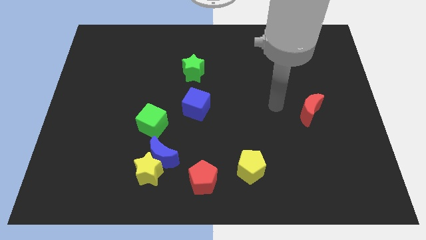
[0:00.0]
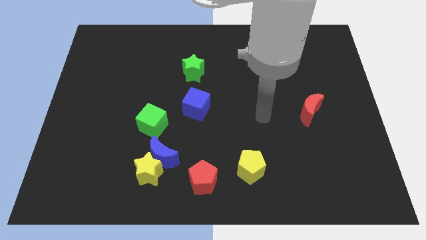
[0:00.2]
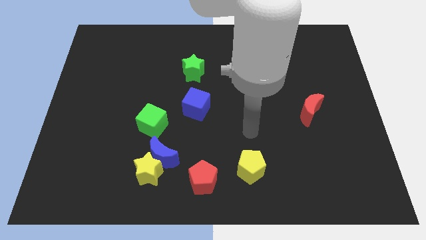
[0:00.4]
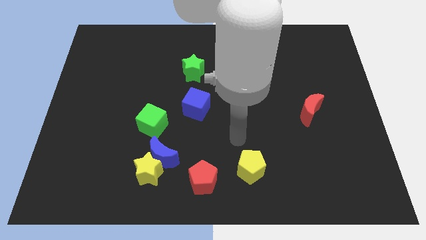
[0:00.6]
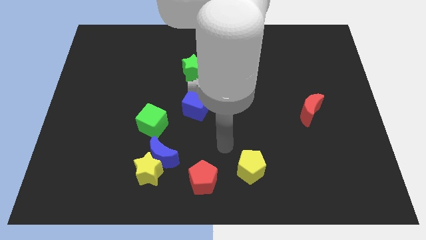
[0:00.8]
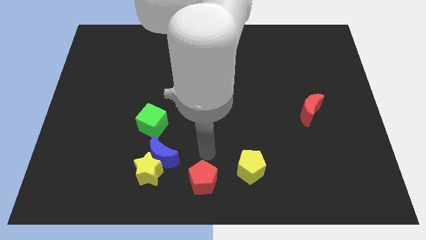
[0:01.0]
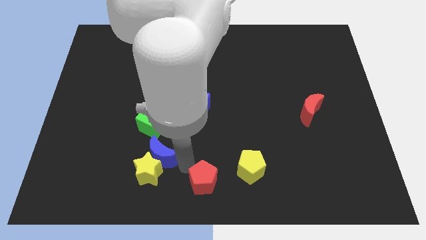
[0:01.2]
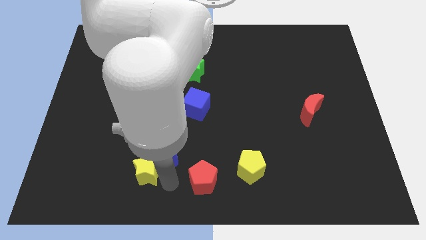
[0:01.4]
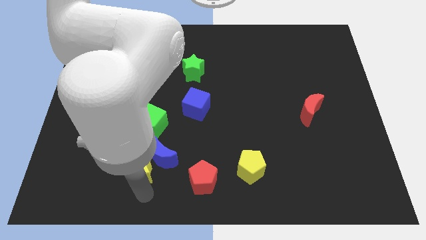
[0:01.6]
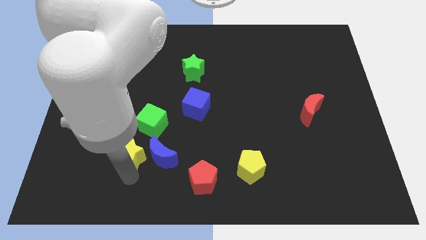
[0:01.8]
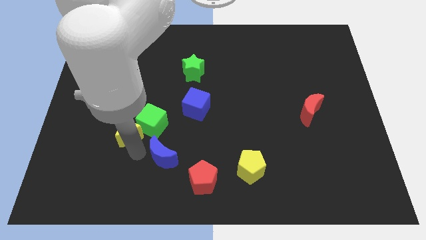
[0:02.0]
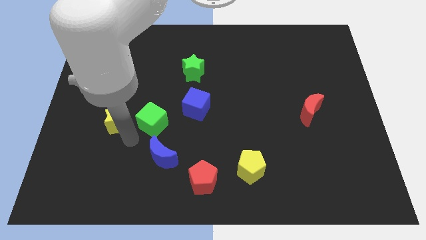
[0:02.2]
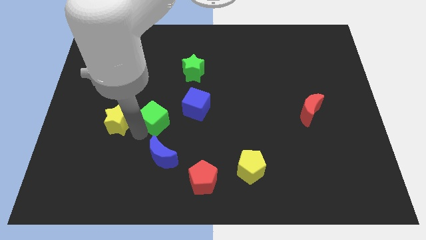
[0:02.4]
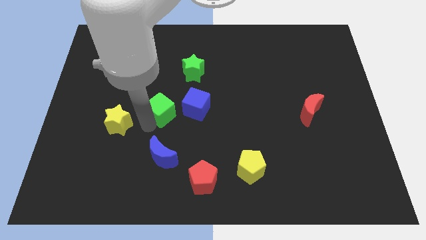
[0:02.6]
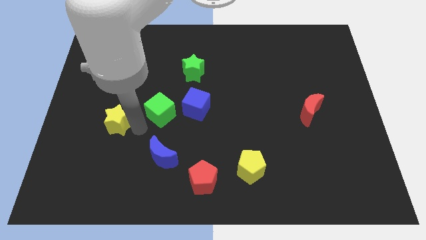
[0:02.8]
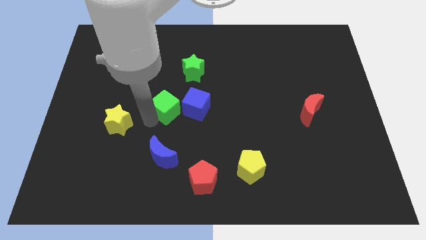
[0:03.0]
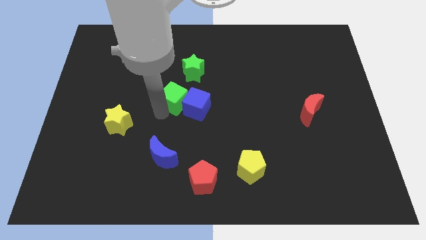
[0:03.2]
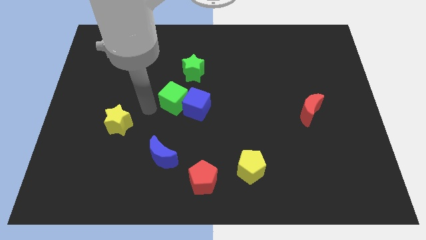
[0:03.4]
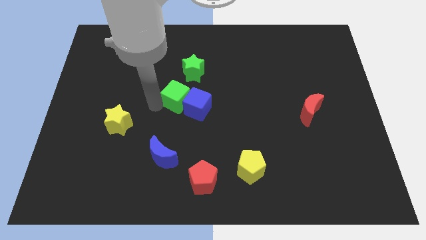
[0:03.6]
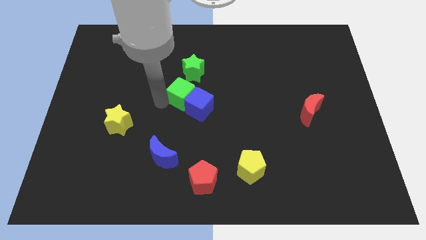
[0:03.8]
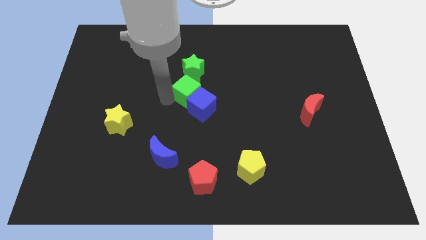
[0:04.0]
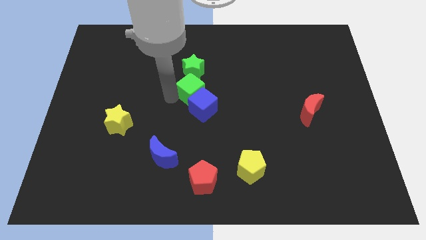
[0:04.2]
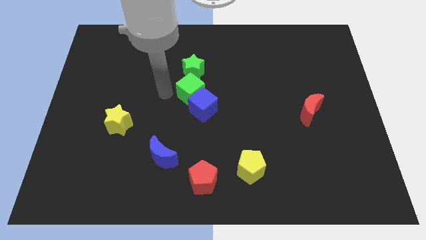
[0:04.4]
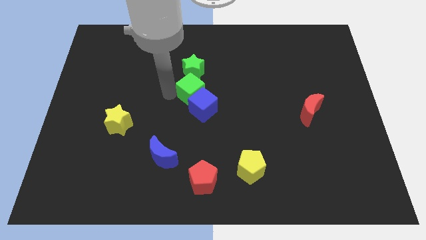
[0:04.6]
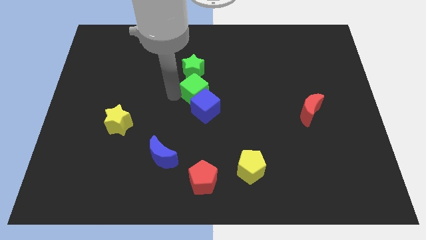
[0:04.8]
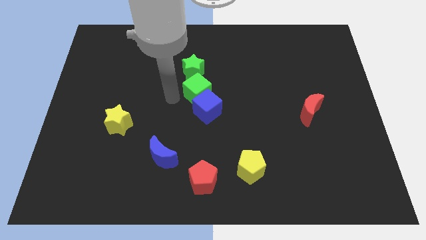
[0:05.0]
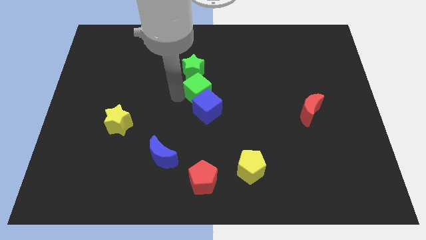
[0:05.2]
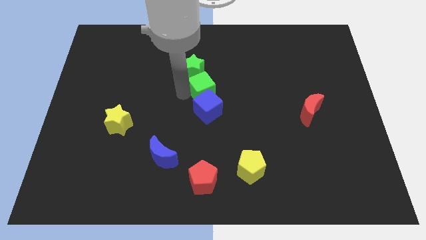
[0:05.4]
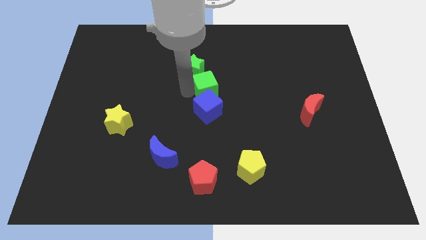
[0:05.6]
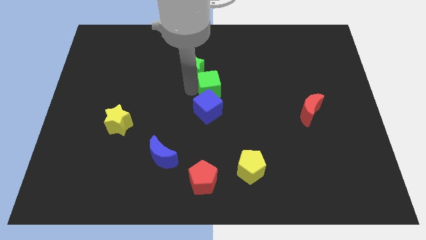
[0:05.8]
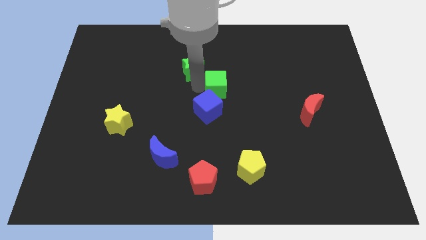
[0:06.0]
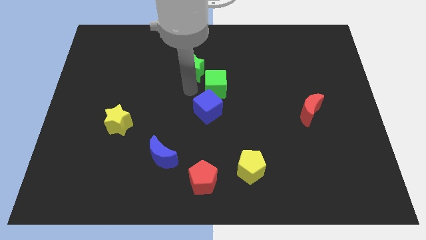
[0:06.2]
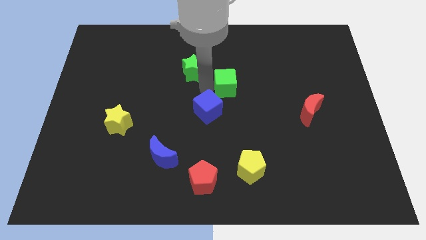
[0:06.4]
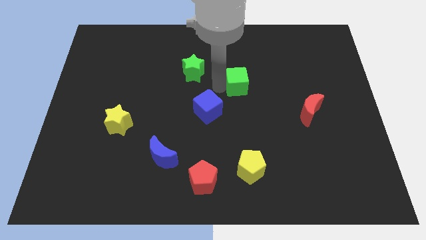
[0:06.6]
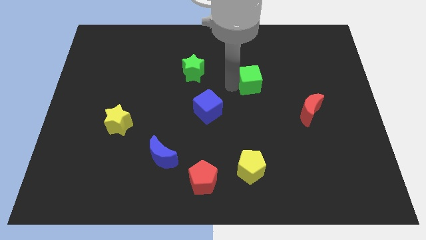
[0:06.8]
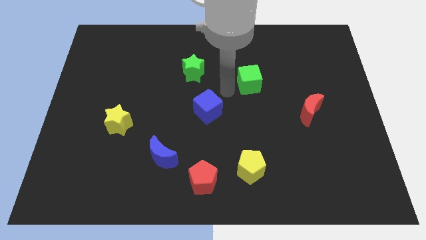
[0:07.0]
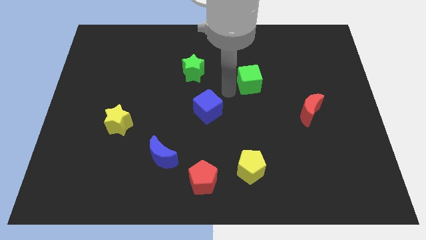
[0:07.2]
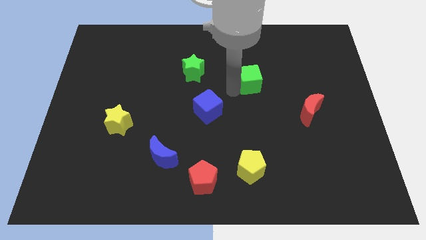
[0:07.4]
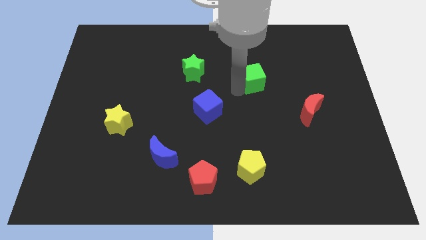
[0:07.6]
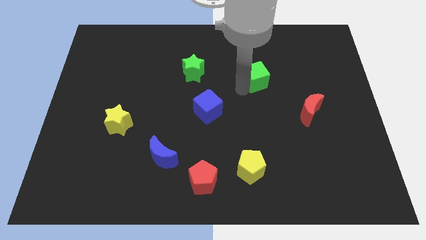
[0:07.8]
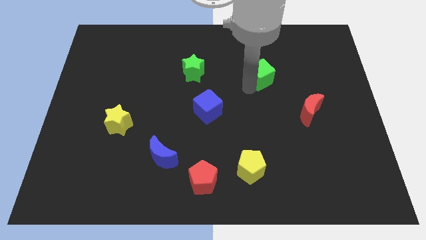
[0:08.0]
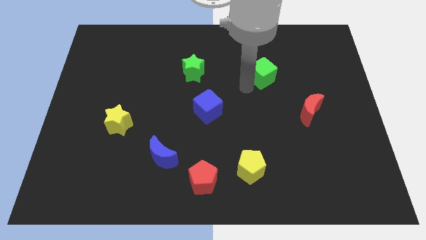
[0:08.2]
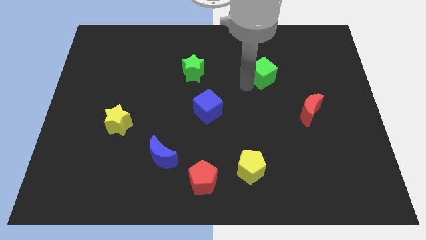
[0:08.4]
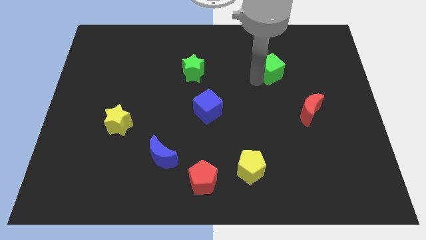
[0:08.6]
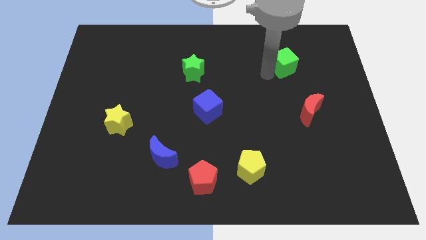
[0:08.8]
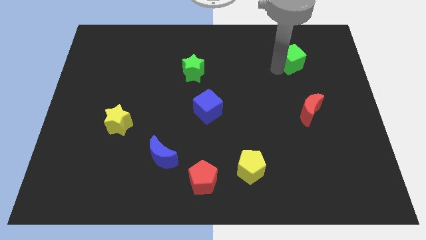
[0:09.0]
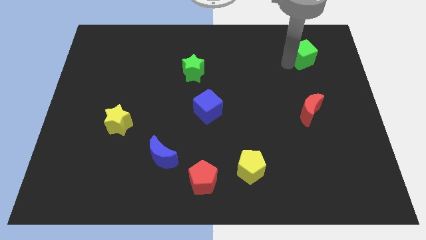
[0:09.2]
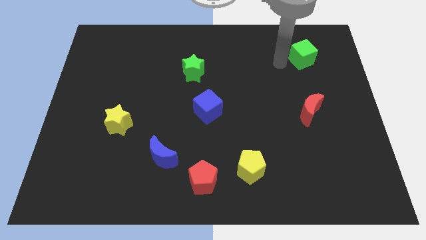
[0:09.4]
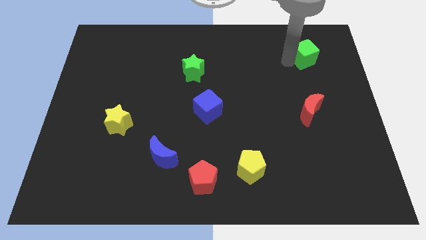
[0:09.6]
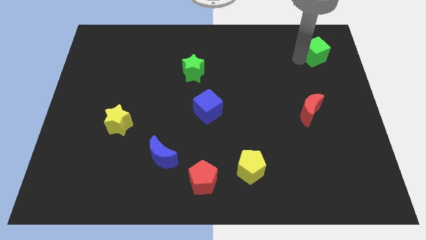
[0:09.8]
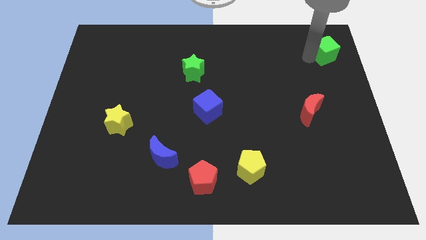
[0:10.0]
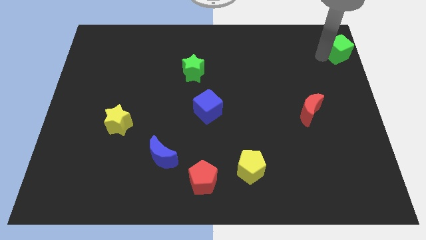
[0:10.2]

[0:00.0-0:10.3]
put the green cube to the top right corner

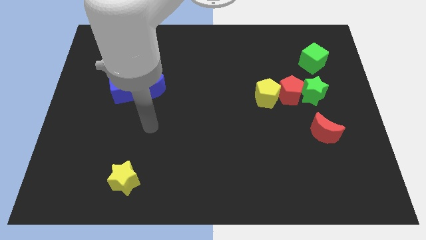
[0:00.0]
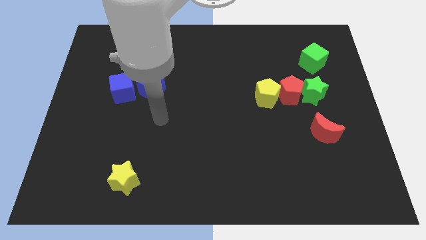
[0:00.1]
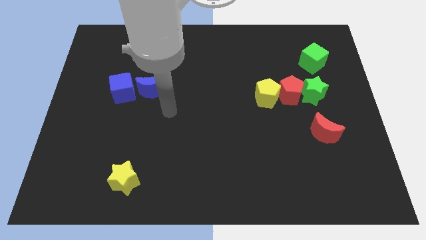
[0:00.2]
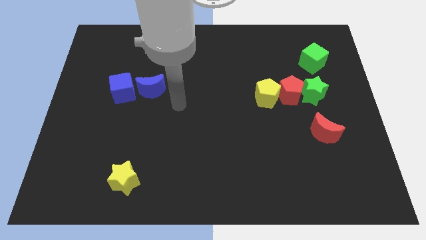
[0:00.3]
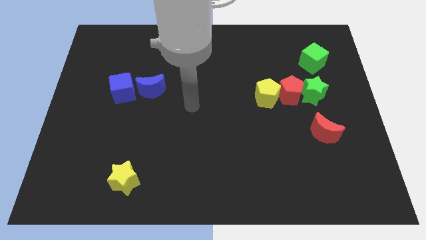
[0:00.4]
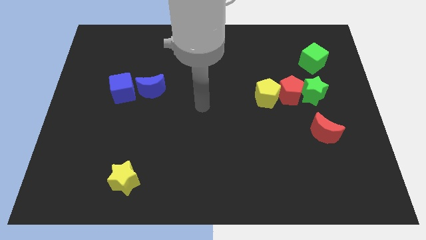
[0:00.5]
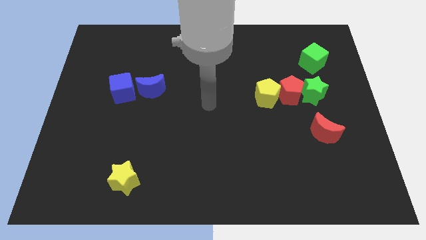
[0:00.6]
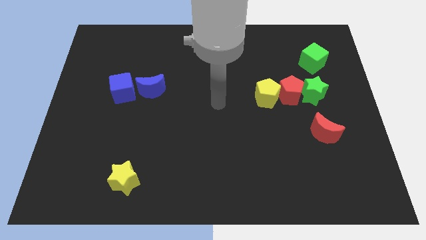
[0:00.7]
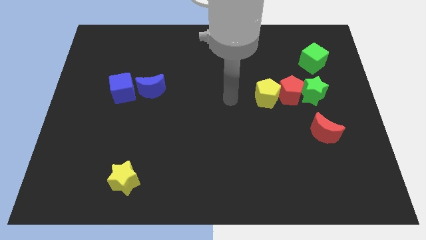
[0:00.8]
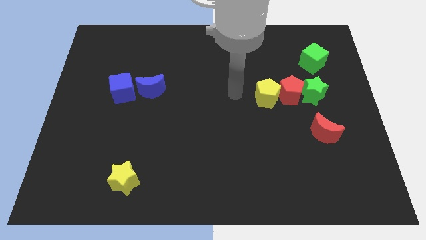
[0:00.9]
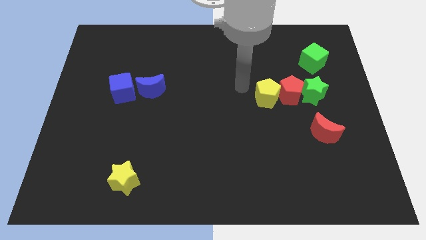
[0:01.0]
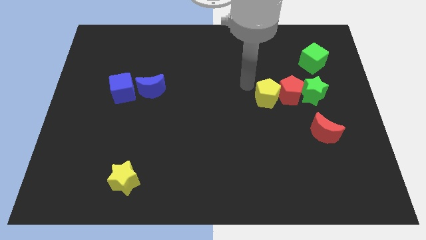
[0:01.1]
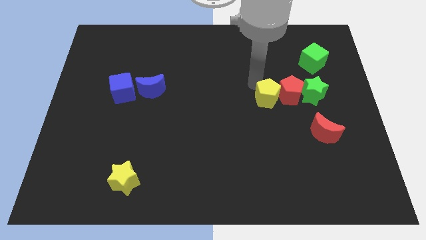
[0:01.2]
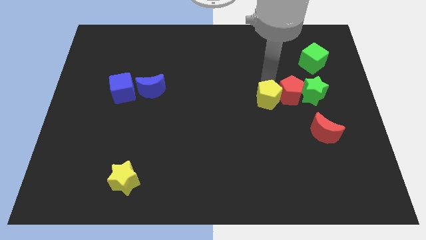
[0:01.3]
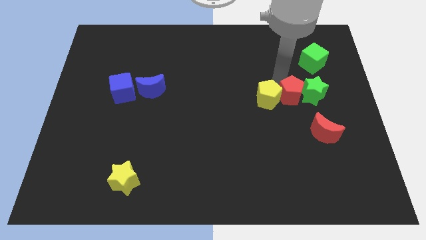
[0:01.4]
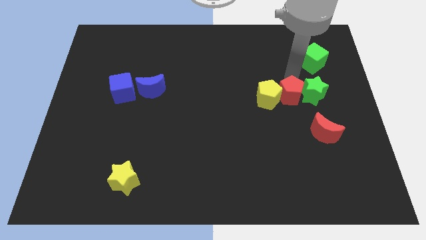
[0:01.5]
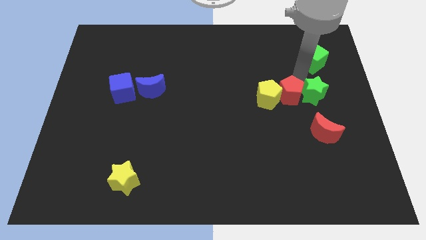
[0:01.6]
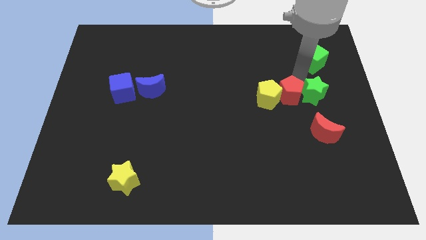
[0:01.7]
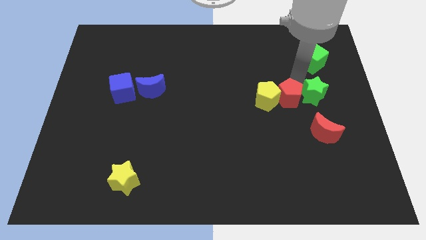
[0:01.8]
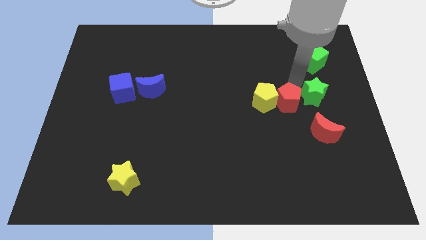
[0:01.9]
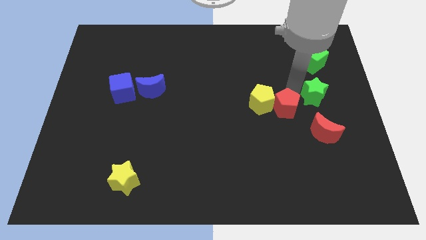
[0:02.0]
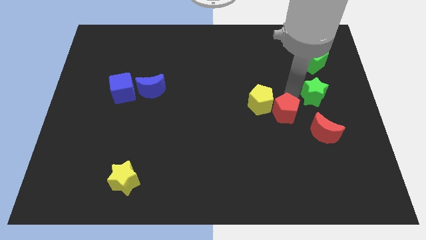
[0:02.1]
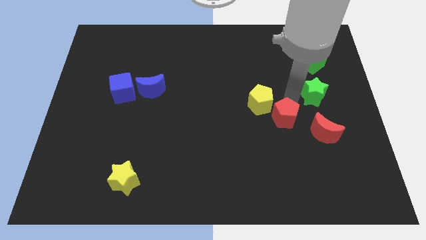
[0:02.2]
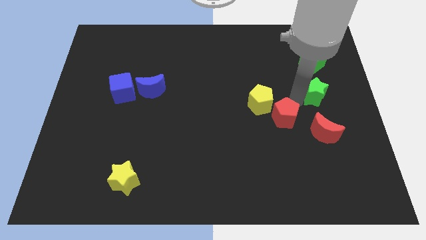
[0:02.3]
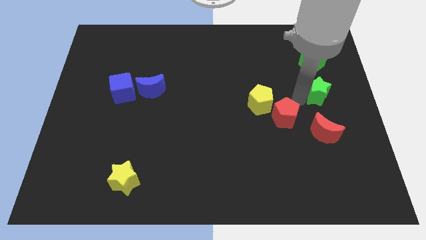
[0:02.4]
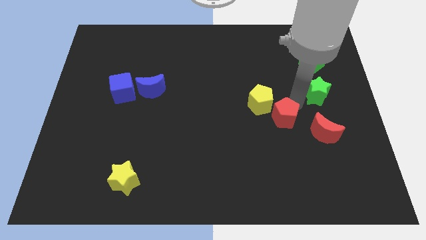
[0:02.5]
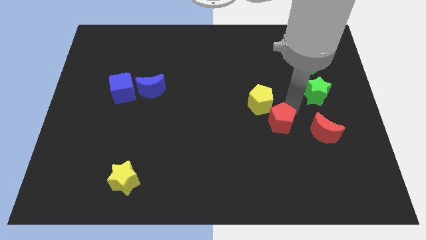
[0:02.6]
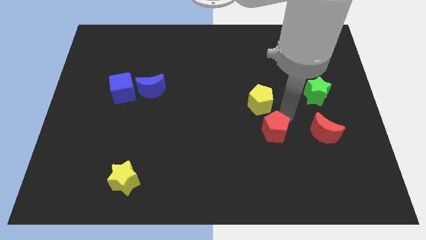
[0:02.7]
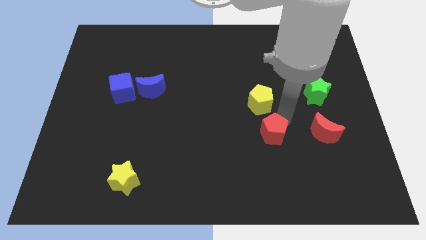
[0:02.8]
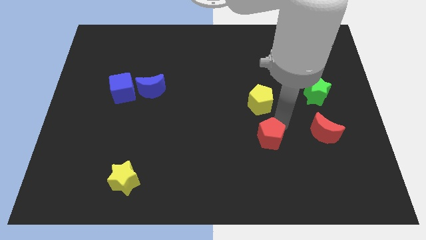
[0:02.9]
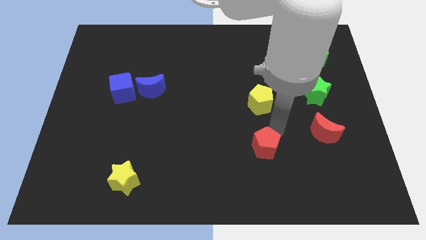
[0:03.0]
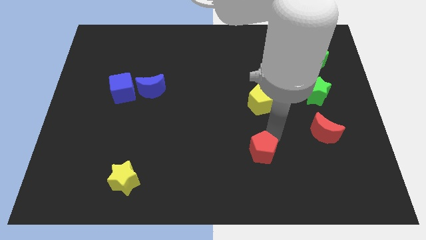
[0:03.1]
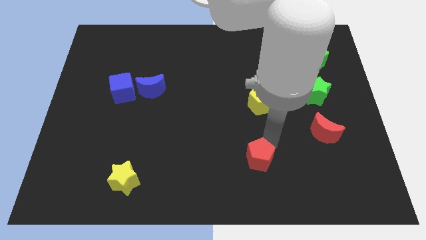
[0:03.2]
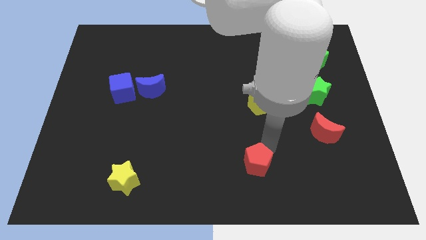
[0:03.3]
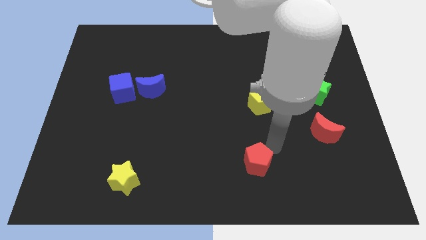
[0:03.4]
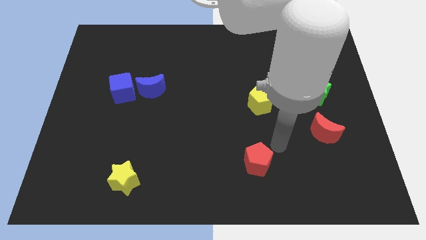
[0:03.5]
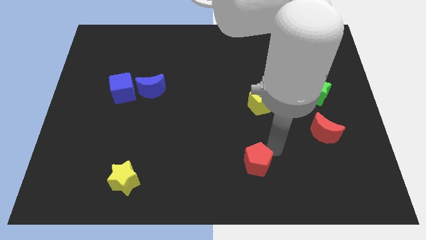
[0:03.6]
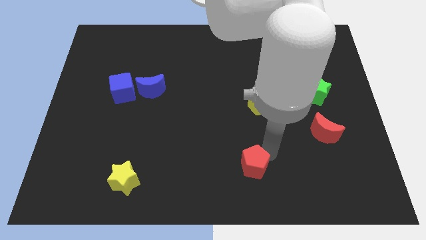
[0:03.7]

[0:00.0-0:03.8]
move the red pentagon to the bottom
